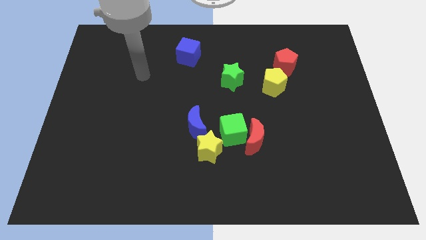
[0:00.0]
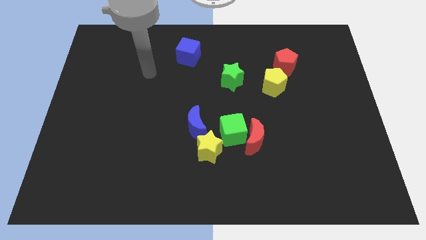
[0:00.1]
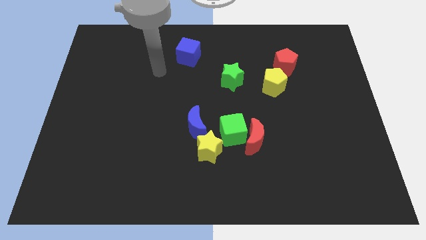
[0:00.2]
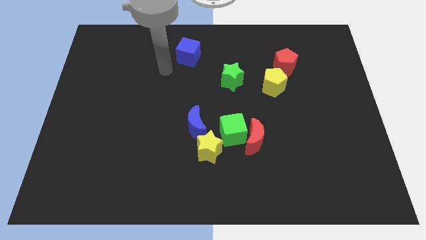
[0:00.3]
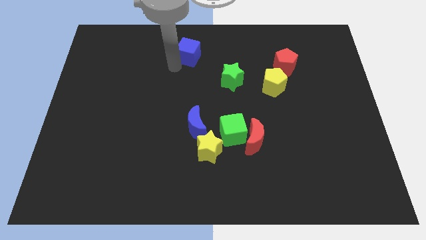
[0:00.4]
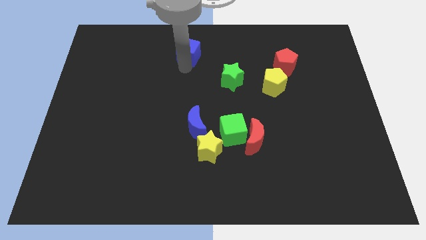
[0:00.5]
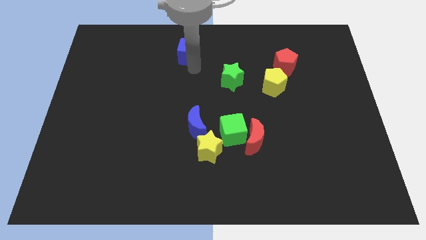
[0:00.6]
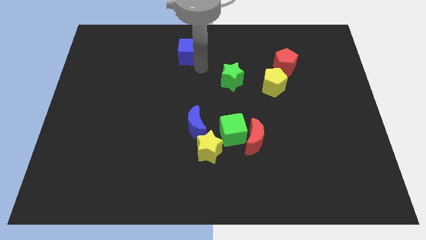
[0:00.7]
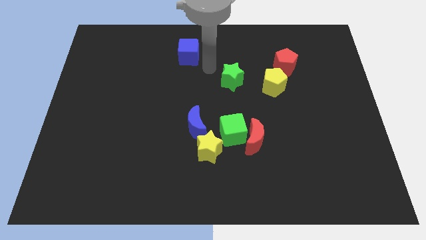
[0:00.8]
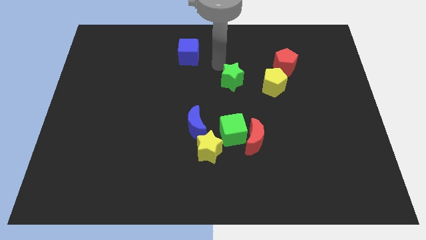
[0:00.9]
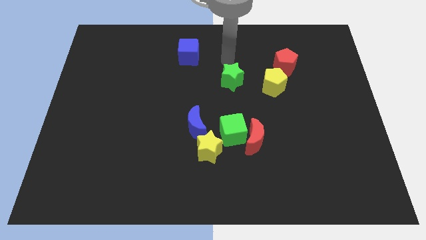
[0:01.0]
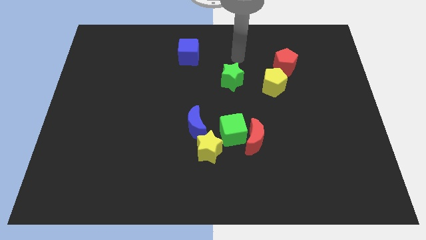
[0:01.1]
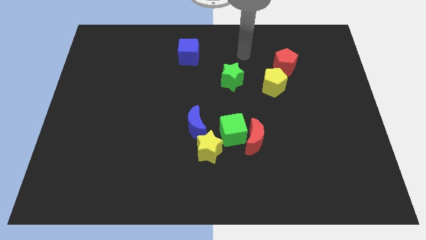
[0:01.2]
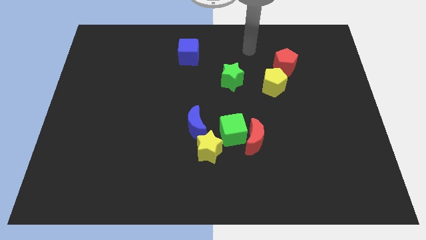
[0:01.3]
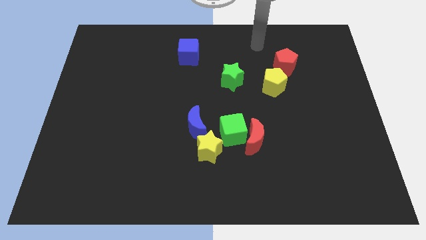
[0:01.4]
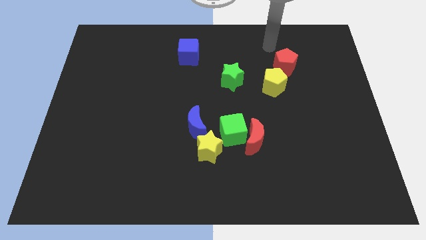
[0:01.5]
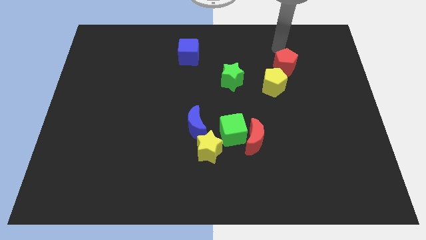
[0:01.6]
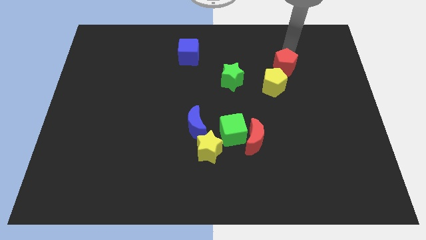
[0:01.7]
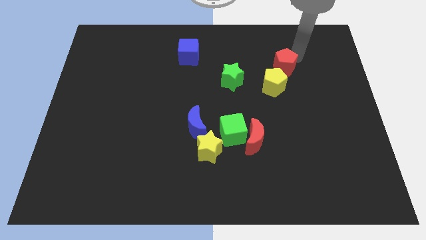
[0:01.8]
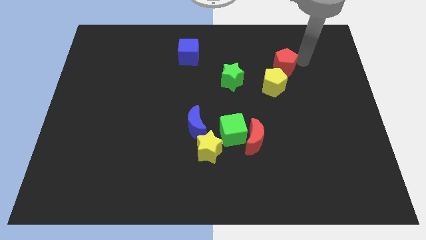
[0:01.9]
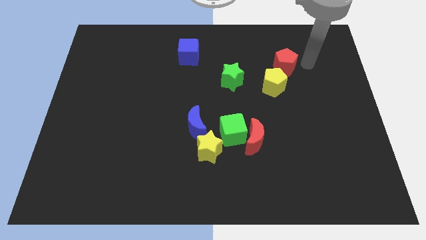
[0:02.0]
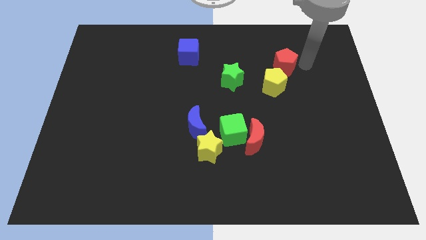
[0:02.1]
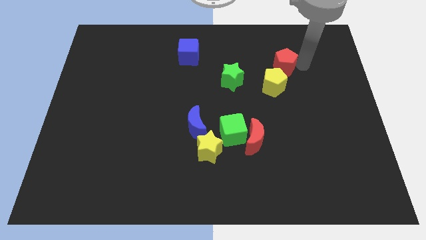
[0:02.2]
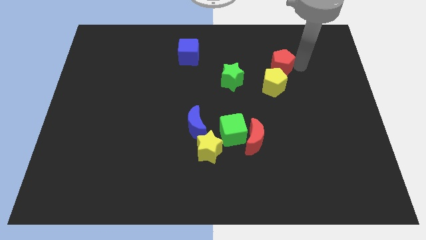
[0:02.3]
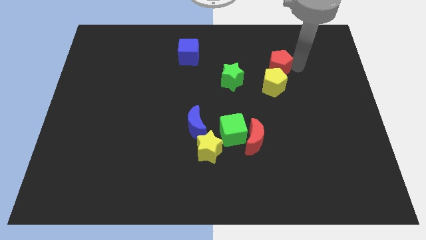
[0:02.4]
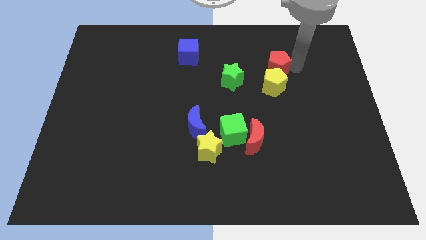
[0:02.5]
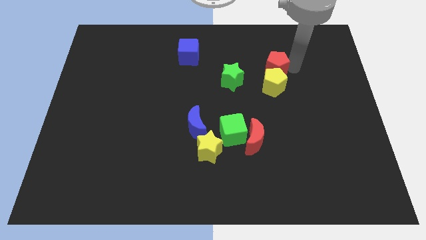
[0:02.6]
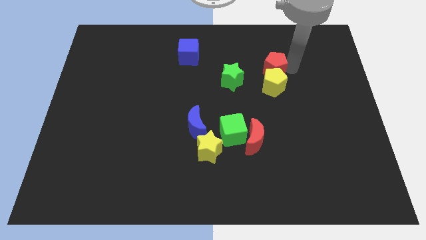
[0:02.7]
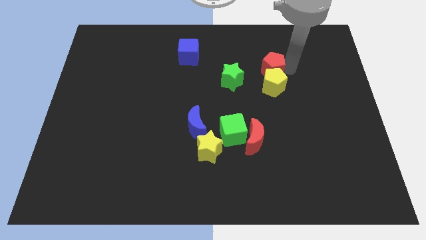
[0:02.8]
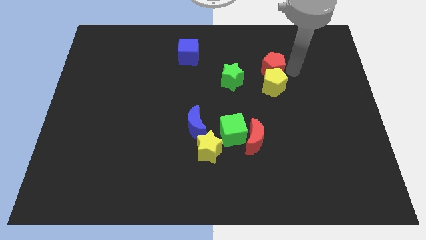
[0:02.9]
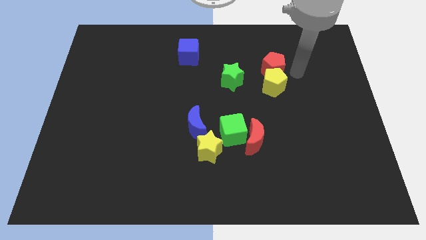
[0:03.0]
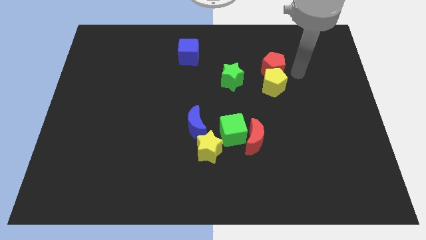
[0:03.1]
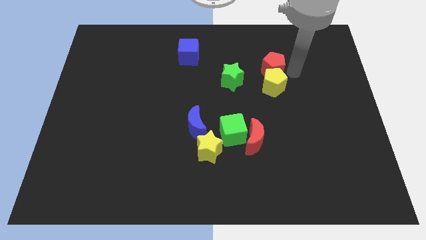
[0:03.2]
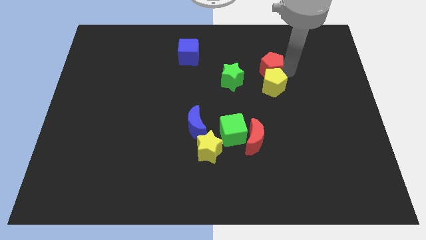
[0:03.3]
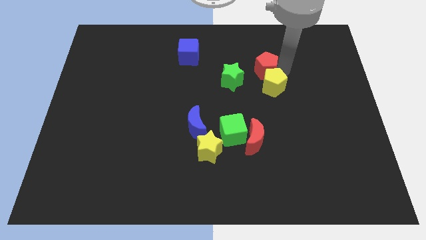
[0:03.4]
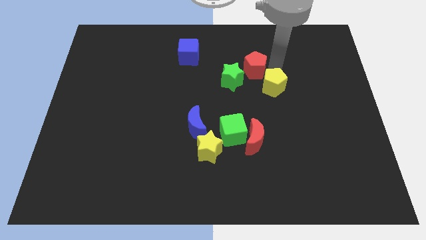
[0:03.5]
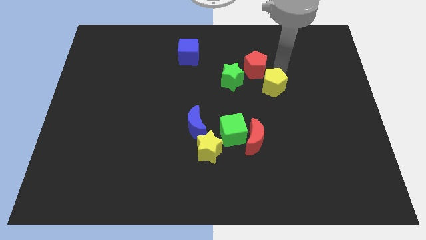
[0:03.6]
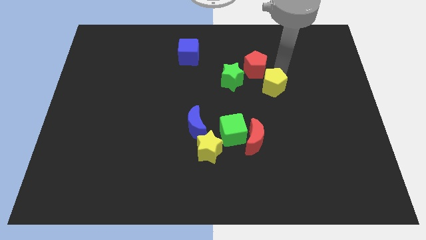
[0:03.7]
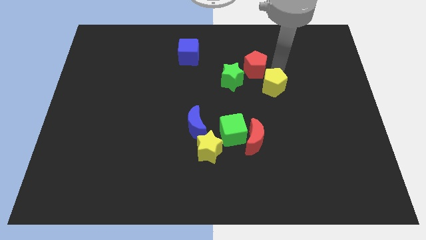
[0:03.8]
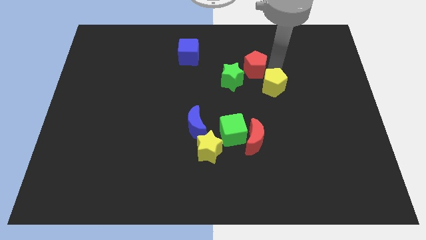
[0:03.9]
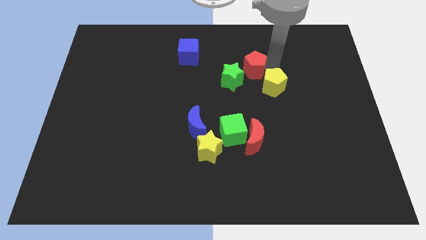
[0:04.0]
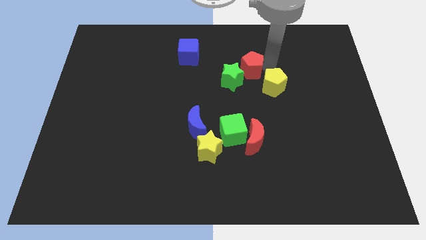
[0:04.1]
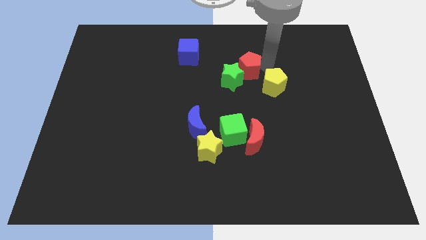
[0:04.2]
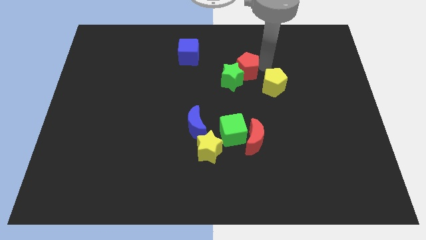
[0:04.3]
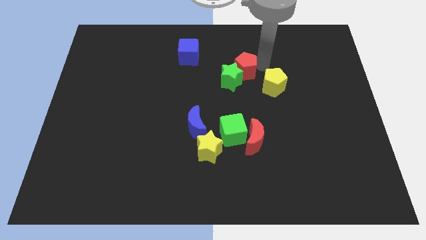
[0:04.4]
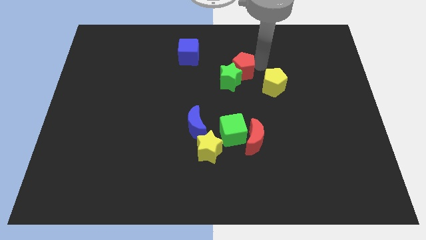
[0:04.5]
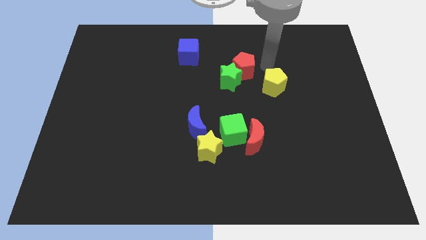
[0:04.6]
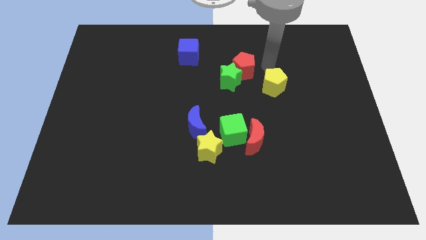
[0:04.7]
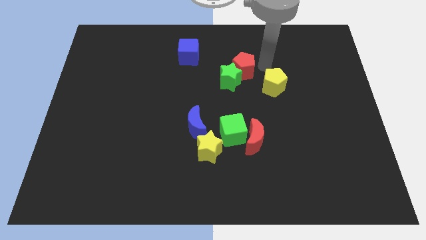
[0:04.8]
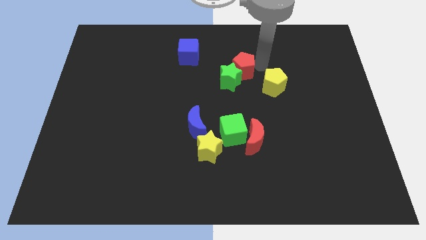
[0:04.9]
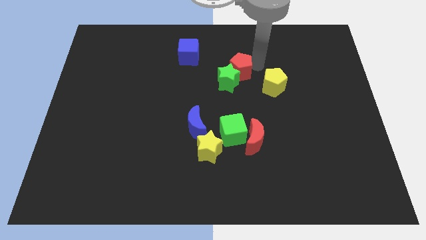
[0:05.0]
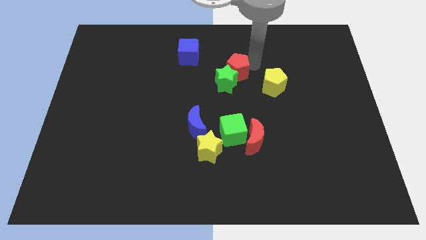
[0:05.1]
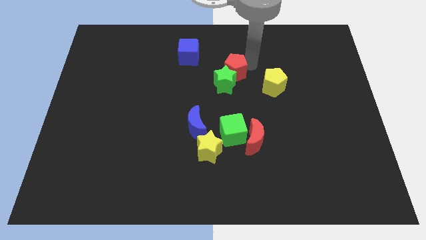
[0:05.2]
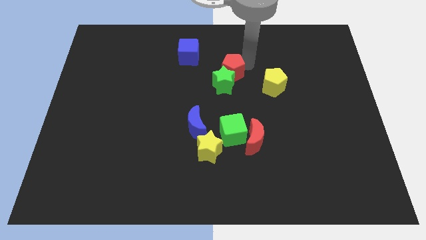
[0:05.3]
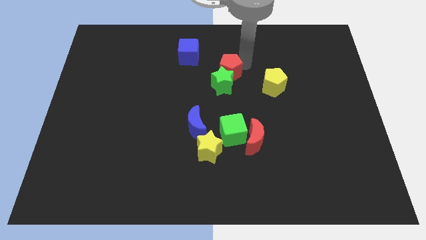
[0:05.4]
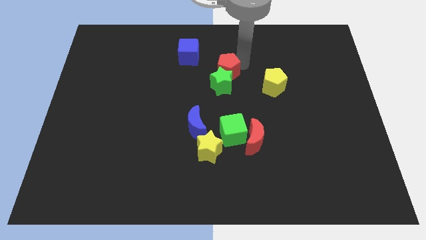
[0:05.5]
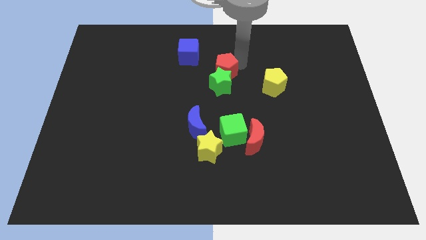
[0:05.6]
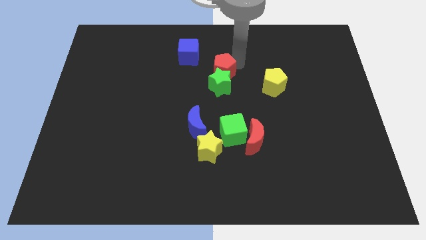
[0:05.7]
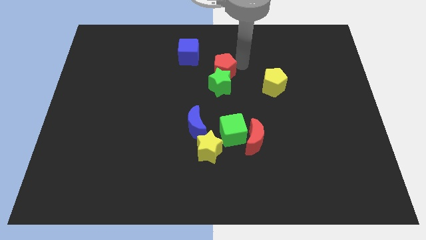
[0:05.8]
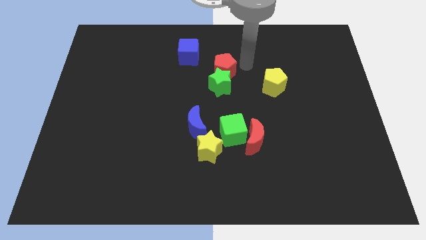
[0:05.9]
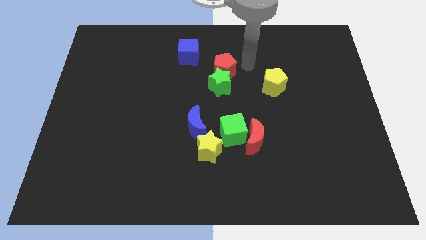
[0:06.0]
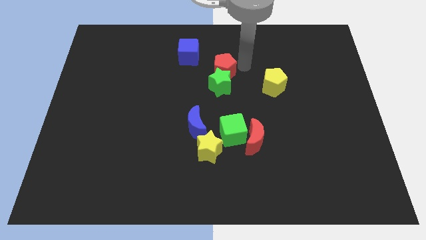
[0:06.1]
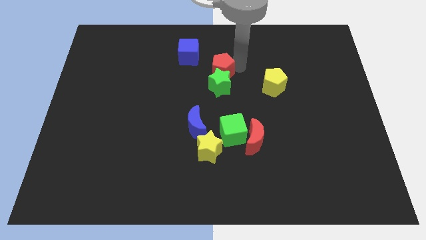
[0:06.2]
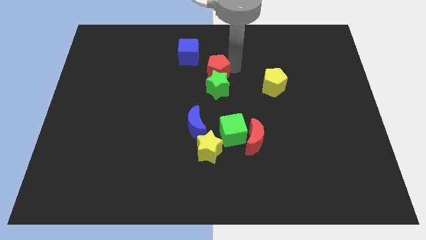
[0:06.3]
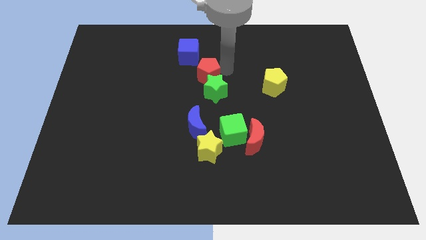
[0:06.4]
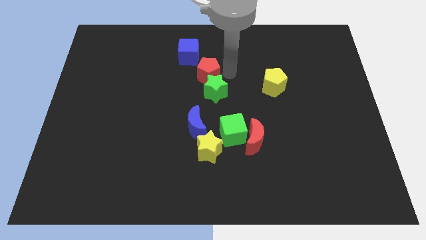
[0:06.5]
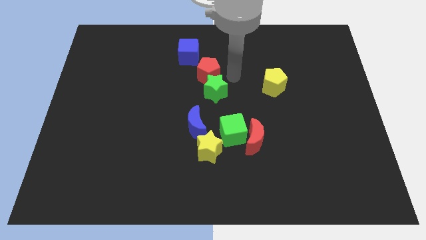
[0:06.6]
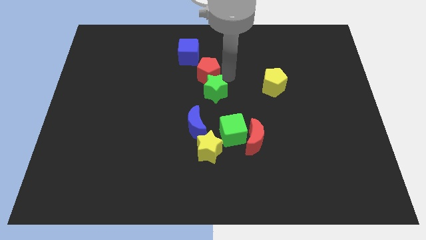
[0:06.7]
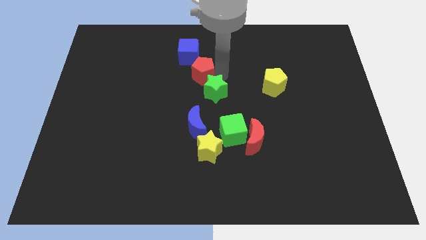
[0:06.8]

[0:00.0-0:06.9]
push the red pentagon to the left

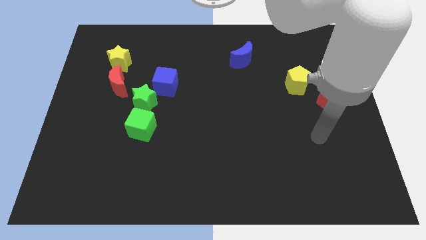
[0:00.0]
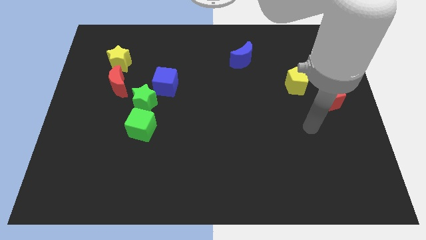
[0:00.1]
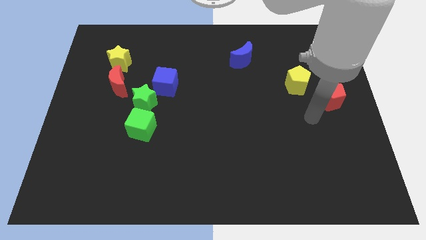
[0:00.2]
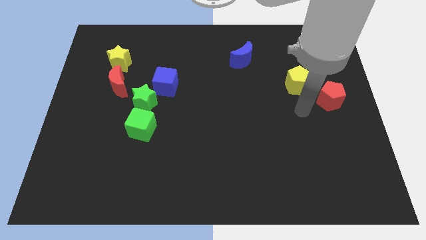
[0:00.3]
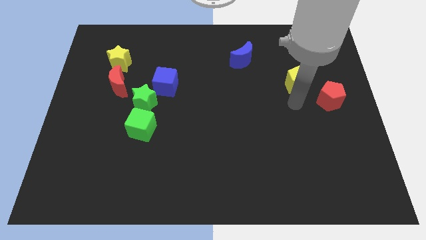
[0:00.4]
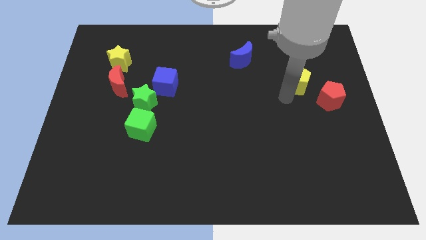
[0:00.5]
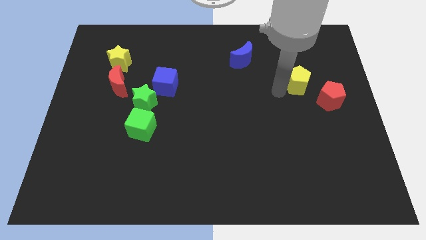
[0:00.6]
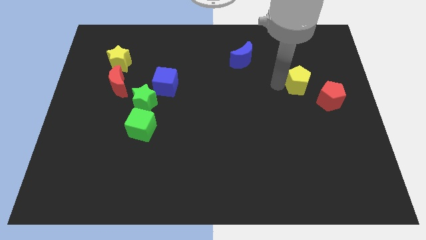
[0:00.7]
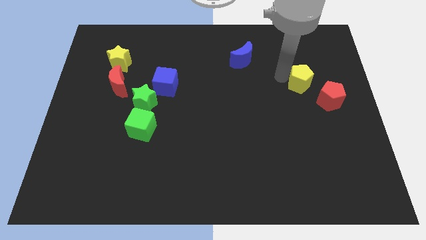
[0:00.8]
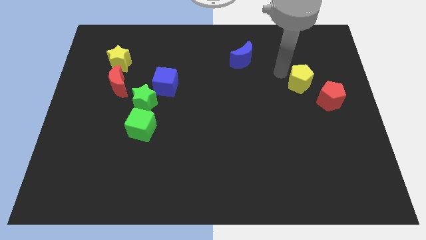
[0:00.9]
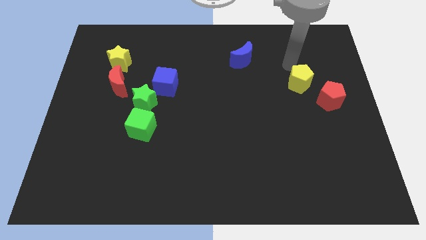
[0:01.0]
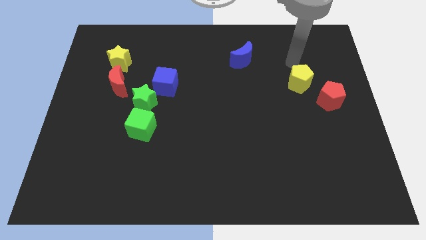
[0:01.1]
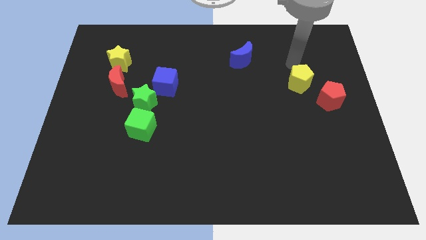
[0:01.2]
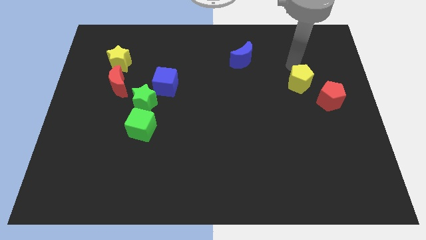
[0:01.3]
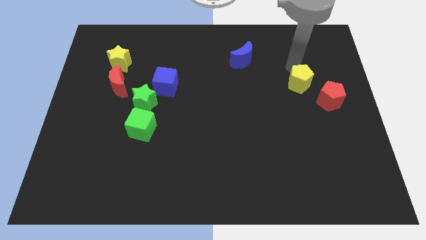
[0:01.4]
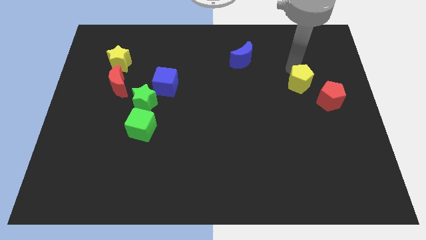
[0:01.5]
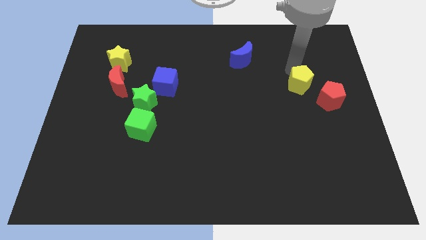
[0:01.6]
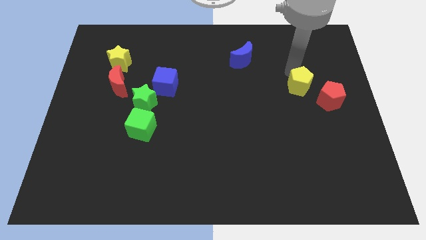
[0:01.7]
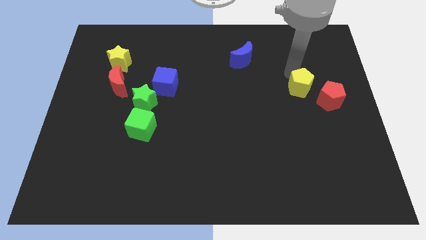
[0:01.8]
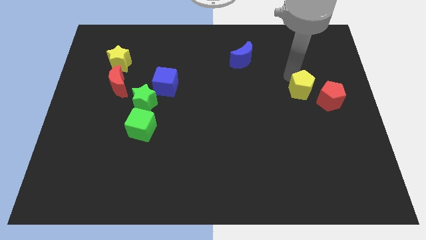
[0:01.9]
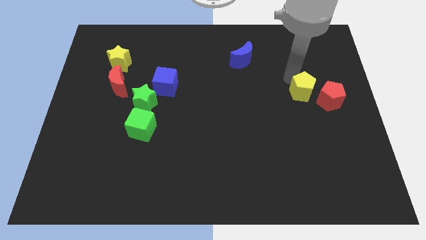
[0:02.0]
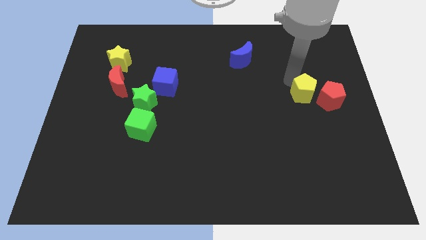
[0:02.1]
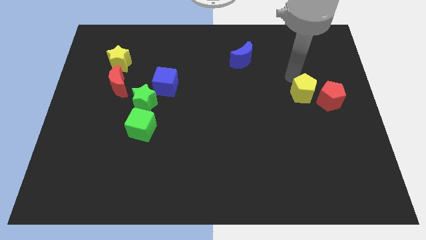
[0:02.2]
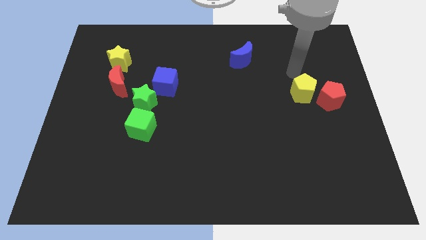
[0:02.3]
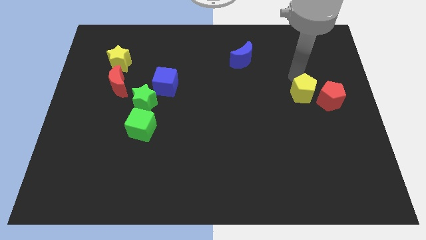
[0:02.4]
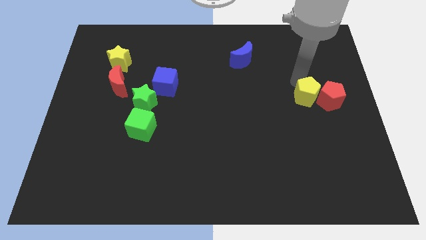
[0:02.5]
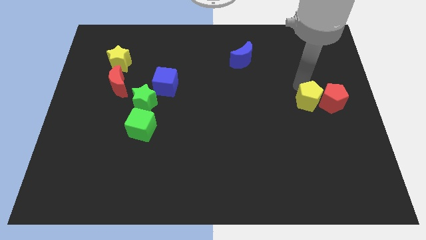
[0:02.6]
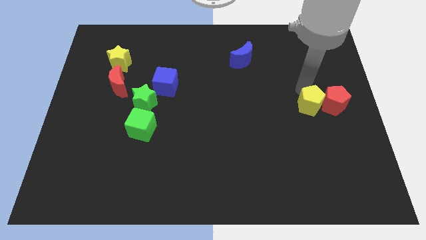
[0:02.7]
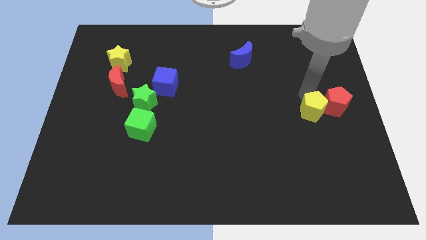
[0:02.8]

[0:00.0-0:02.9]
slide the yellow pentagon somewhat downwards
